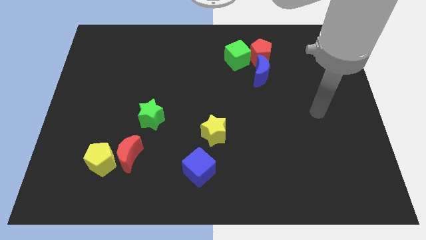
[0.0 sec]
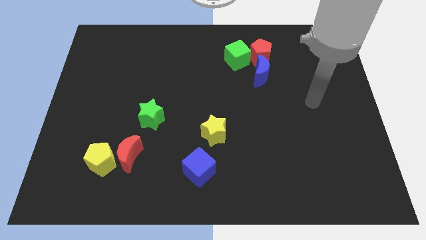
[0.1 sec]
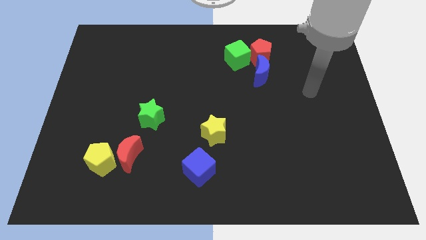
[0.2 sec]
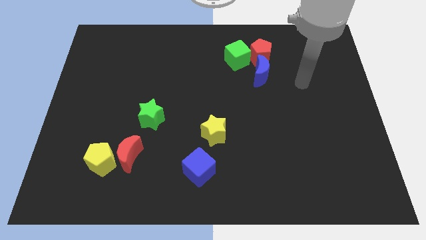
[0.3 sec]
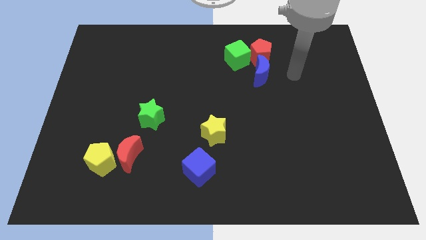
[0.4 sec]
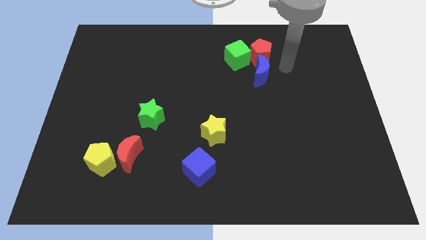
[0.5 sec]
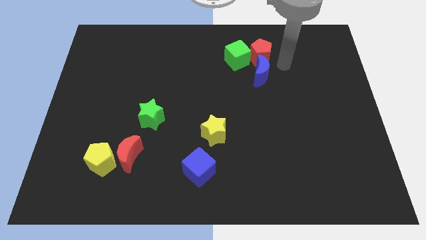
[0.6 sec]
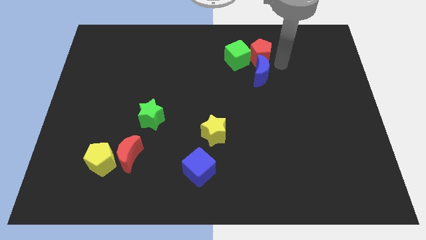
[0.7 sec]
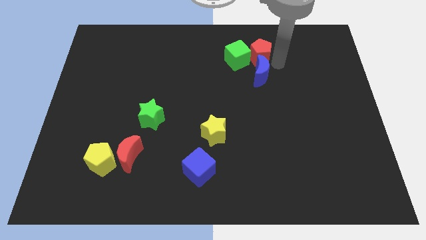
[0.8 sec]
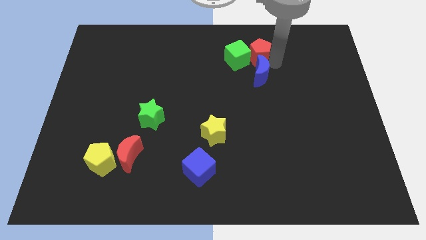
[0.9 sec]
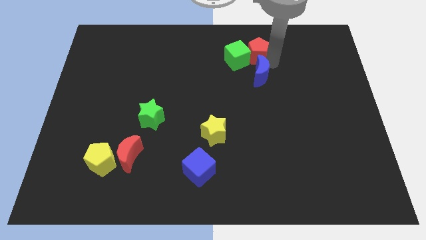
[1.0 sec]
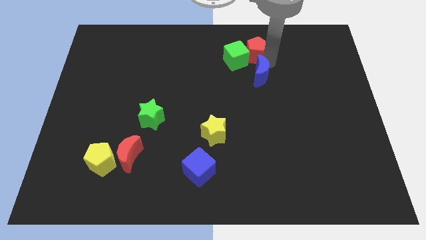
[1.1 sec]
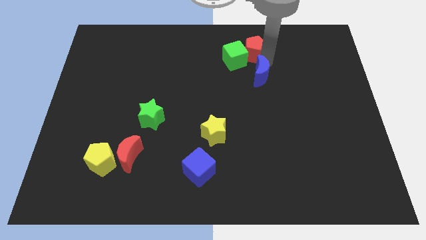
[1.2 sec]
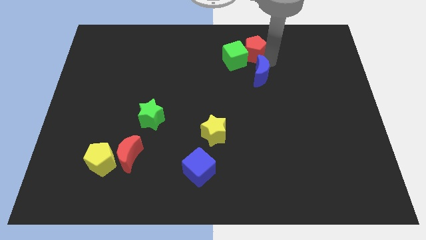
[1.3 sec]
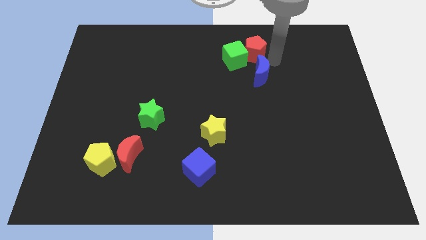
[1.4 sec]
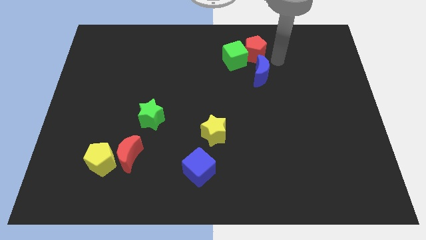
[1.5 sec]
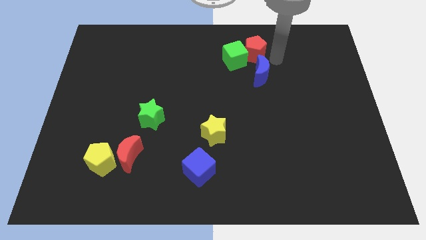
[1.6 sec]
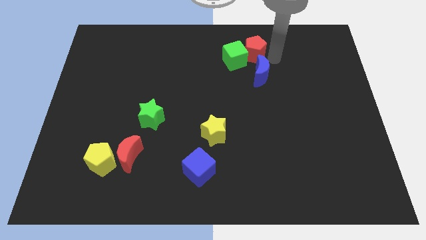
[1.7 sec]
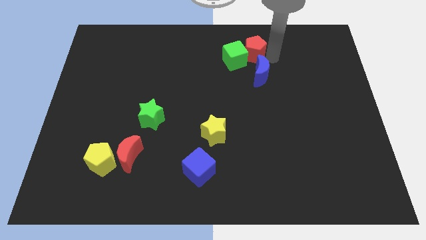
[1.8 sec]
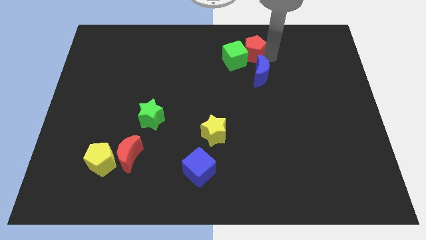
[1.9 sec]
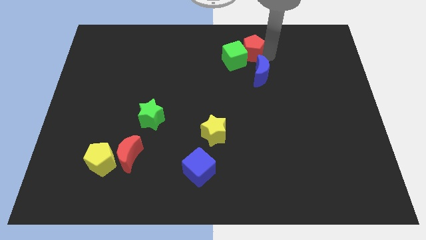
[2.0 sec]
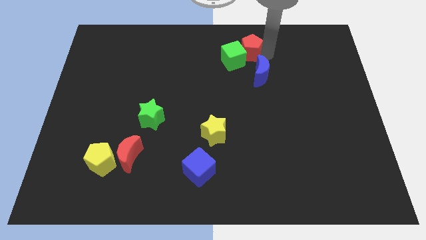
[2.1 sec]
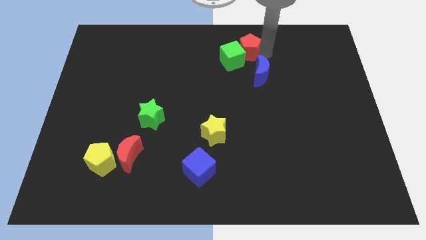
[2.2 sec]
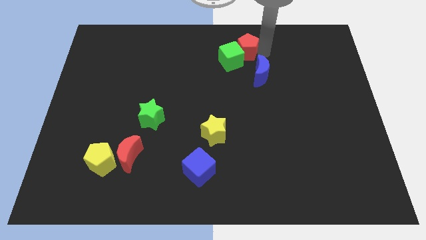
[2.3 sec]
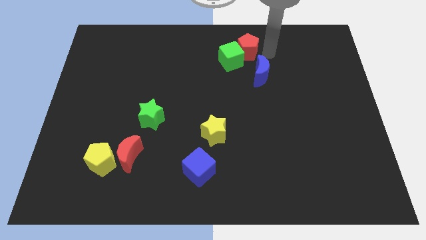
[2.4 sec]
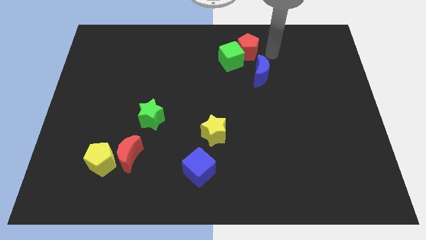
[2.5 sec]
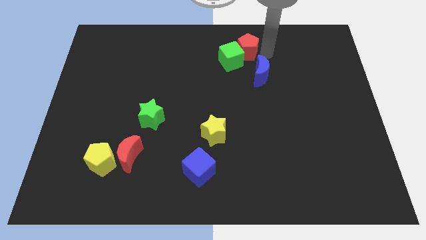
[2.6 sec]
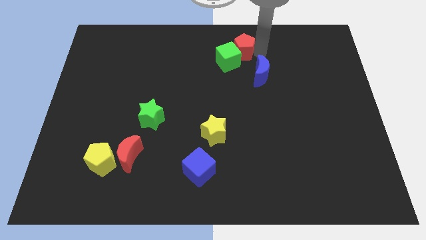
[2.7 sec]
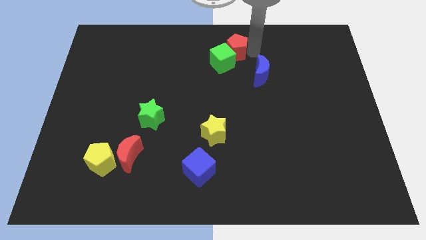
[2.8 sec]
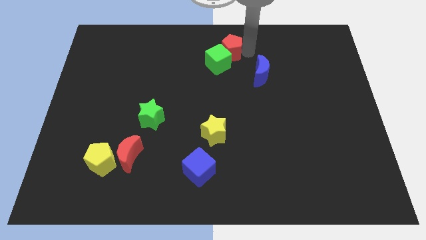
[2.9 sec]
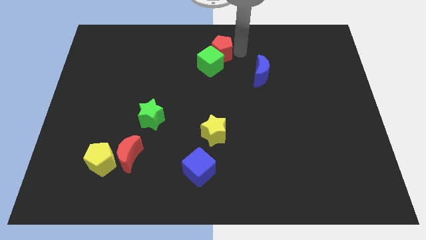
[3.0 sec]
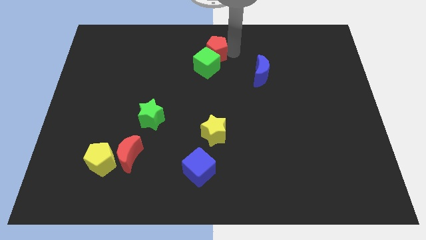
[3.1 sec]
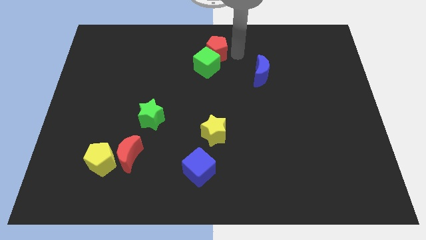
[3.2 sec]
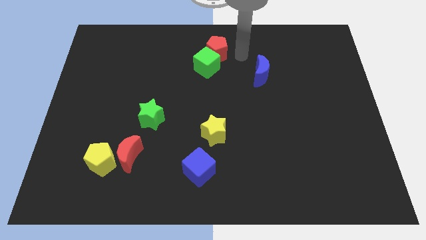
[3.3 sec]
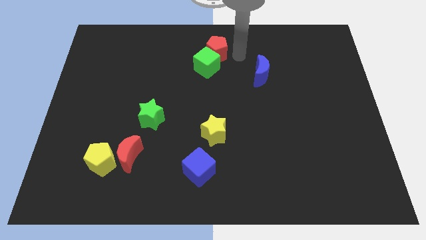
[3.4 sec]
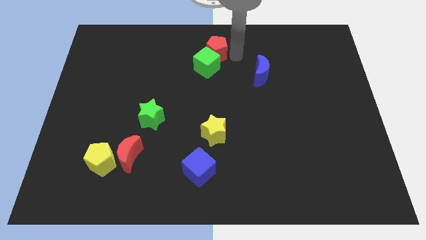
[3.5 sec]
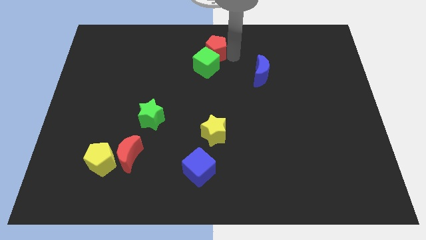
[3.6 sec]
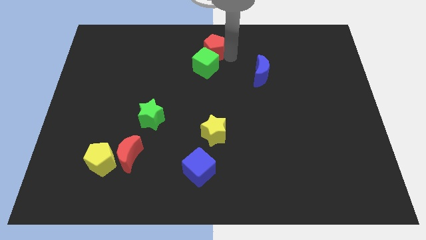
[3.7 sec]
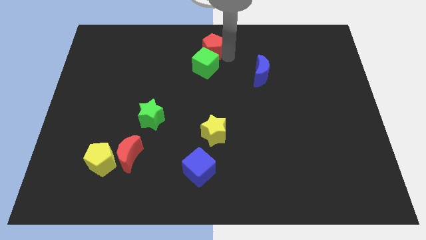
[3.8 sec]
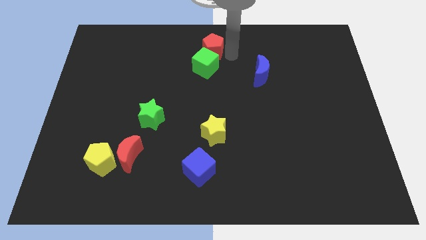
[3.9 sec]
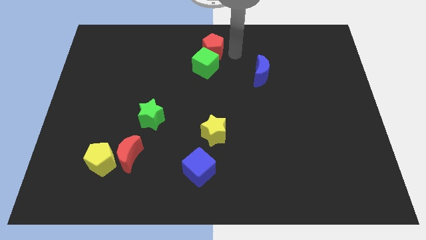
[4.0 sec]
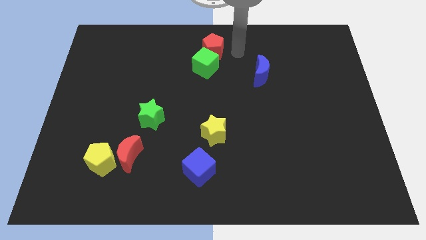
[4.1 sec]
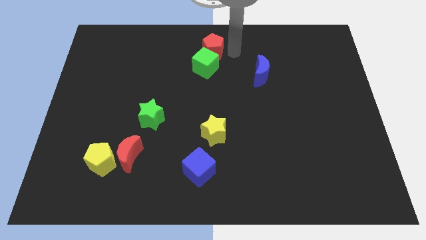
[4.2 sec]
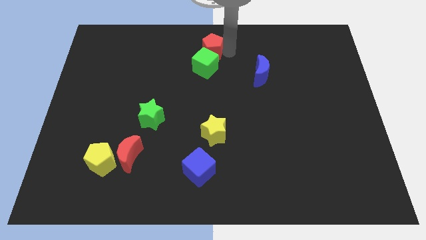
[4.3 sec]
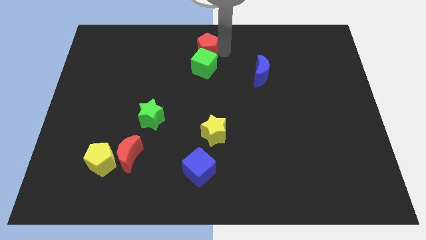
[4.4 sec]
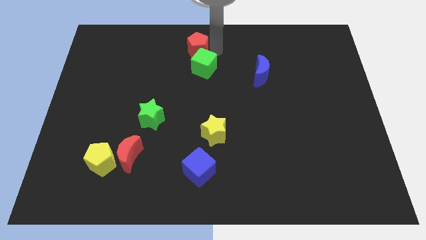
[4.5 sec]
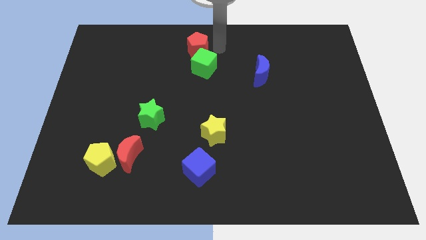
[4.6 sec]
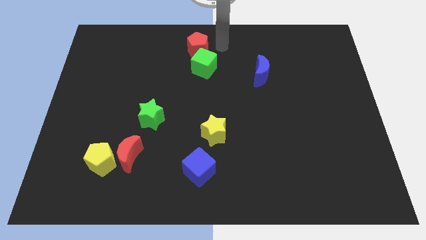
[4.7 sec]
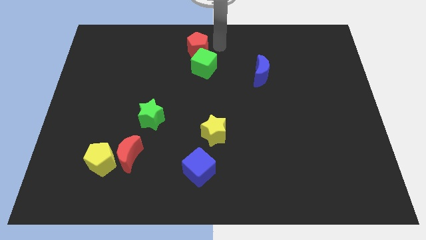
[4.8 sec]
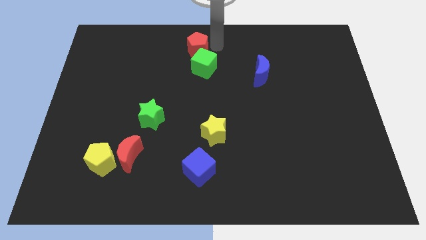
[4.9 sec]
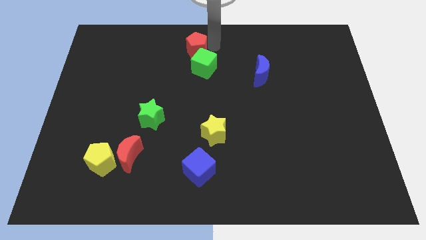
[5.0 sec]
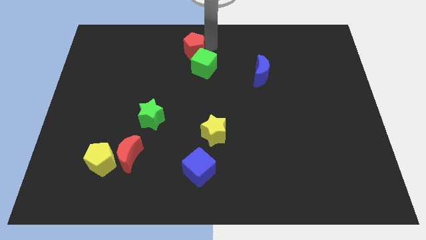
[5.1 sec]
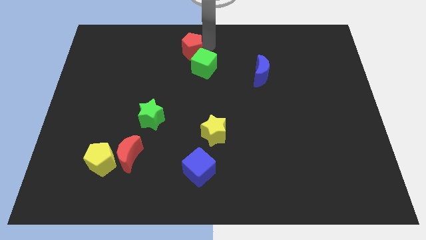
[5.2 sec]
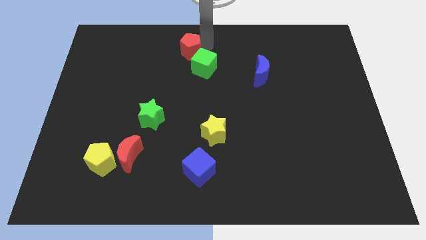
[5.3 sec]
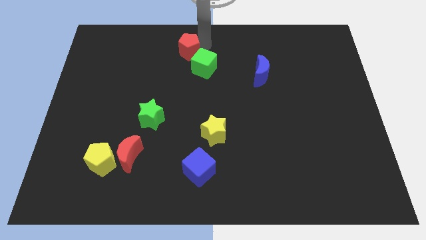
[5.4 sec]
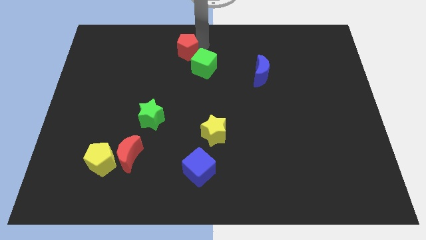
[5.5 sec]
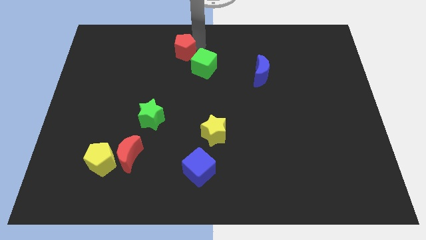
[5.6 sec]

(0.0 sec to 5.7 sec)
push the red pentagon left

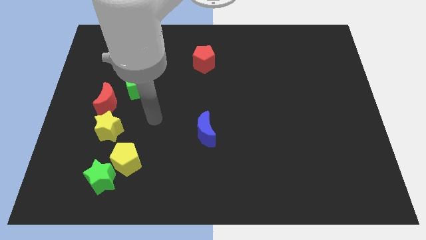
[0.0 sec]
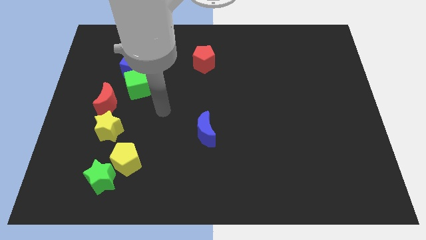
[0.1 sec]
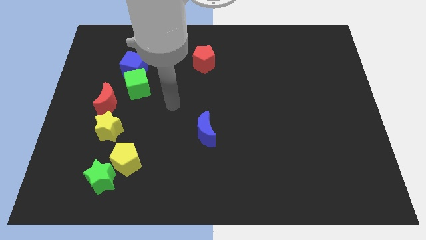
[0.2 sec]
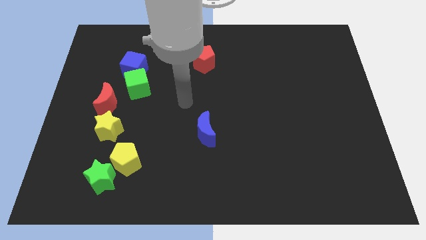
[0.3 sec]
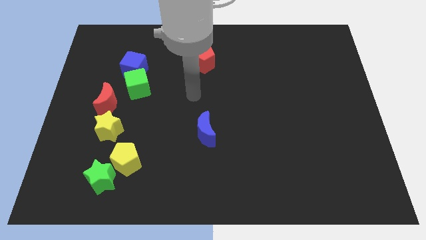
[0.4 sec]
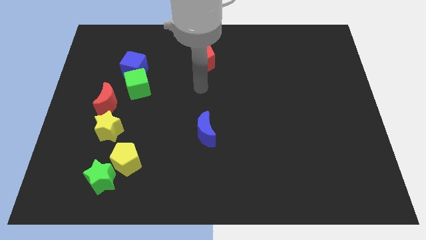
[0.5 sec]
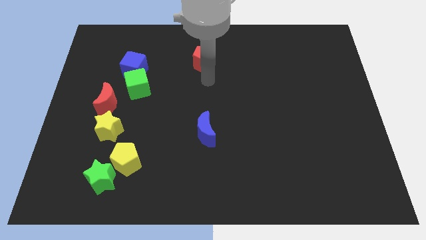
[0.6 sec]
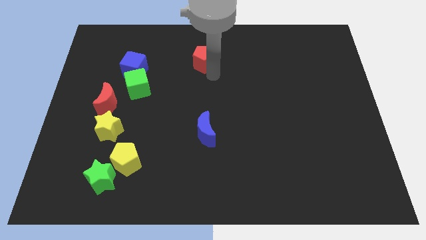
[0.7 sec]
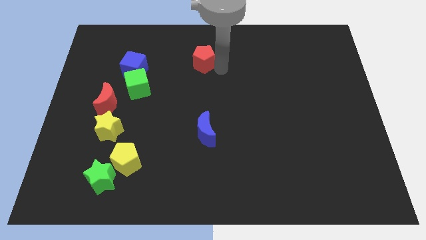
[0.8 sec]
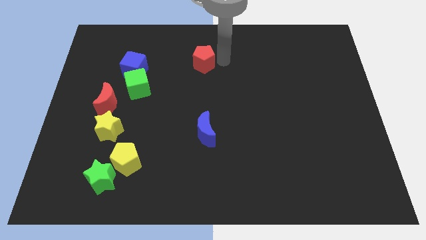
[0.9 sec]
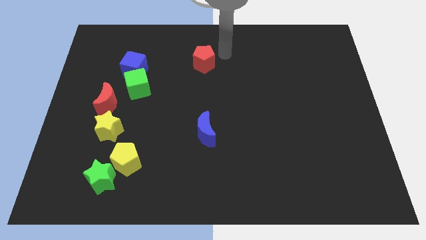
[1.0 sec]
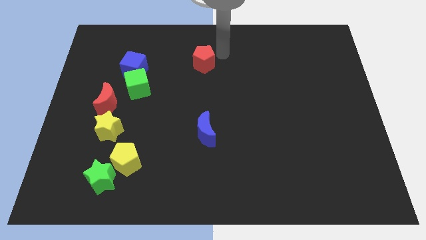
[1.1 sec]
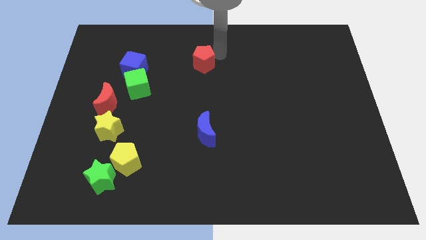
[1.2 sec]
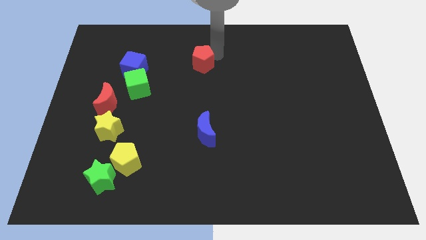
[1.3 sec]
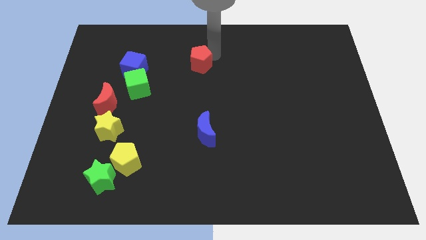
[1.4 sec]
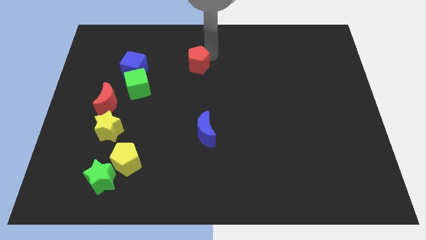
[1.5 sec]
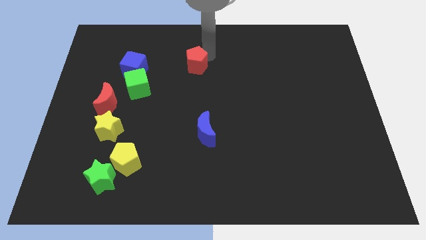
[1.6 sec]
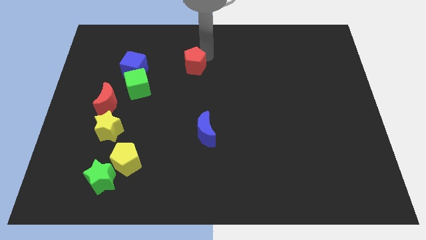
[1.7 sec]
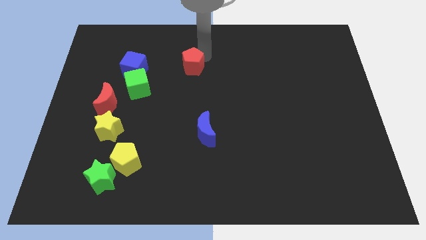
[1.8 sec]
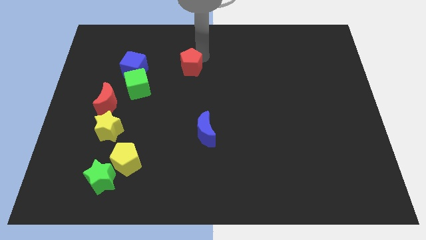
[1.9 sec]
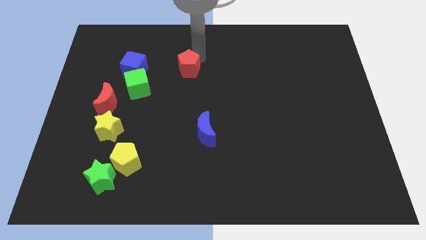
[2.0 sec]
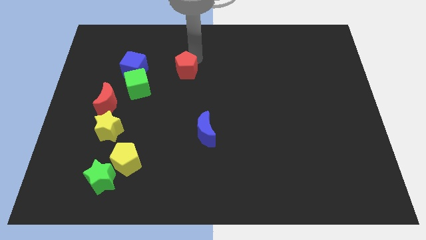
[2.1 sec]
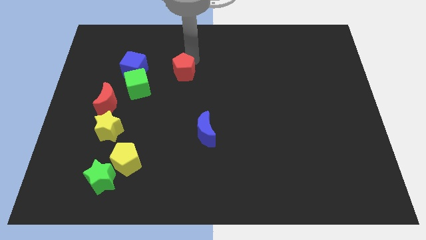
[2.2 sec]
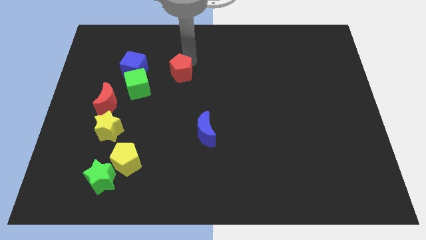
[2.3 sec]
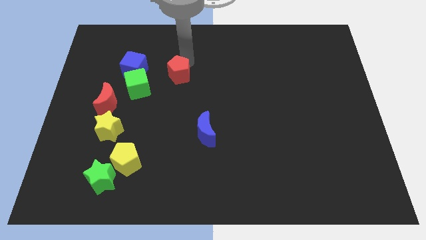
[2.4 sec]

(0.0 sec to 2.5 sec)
push the red pentagon downwards and then to the left a little bit
